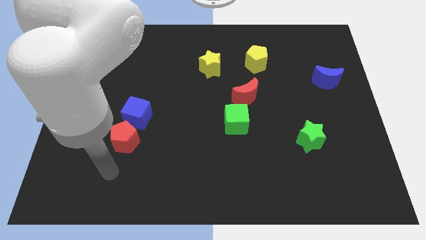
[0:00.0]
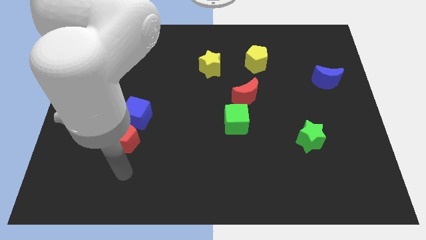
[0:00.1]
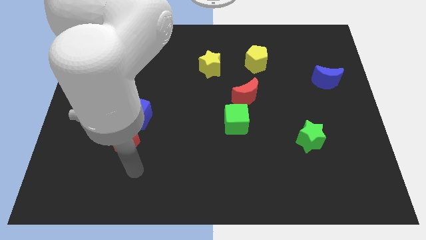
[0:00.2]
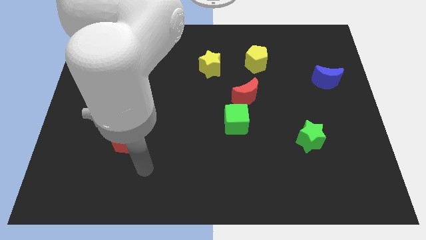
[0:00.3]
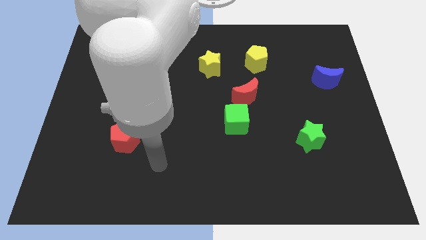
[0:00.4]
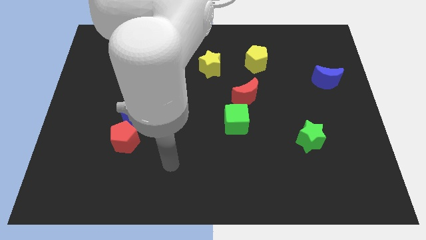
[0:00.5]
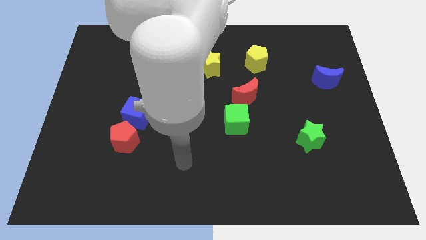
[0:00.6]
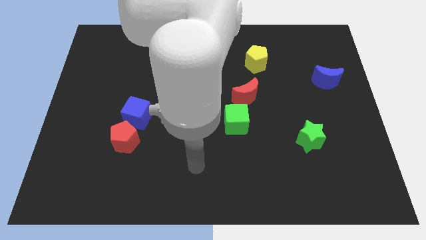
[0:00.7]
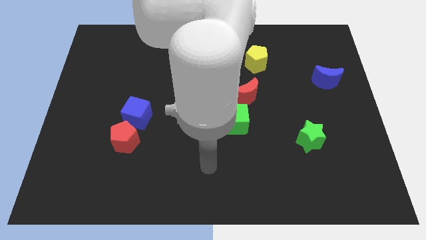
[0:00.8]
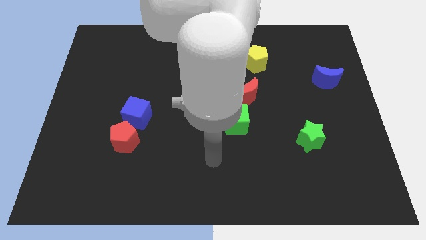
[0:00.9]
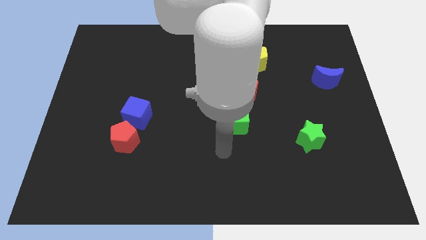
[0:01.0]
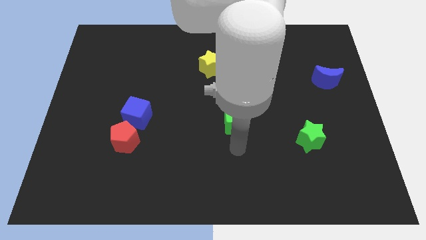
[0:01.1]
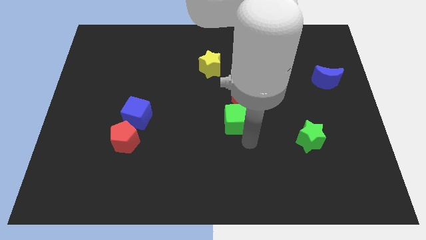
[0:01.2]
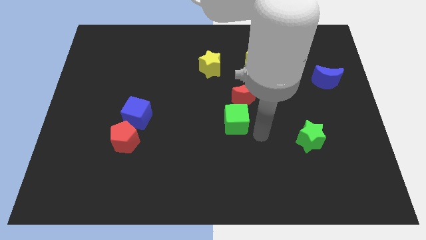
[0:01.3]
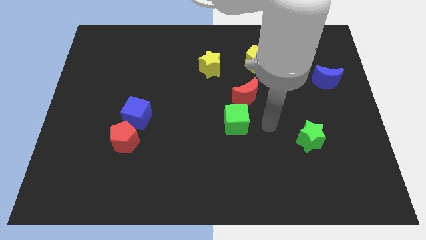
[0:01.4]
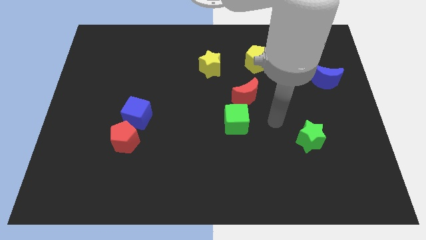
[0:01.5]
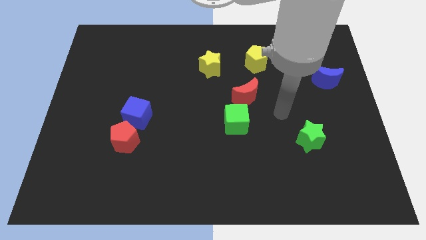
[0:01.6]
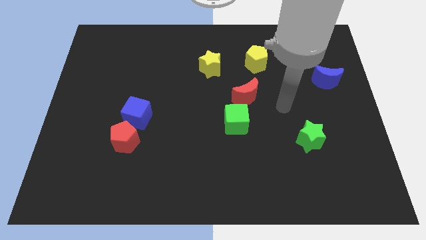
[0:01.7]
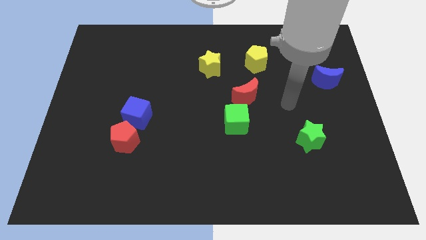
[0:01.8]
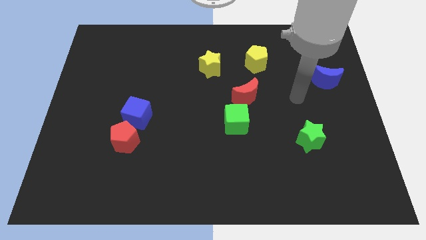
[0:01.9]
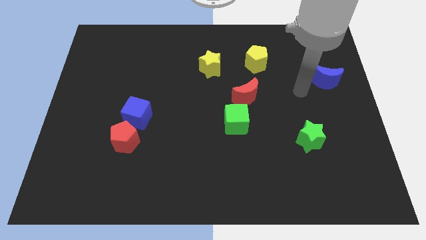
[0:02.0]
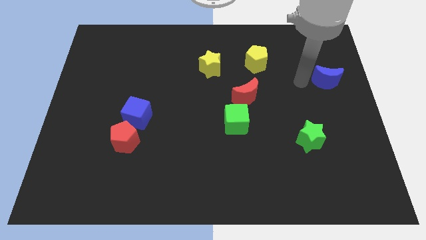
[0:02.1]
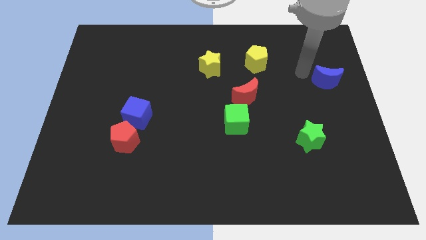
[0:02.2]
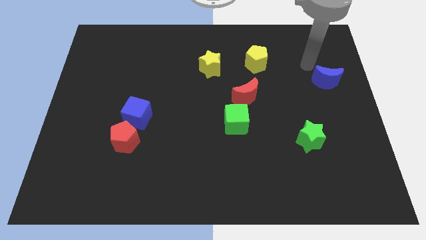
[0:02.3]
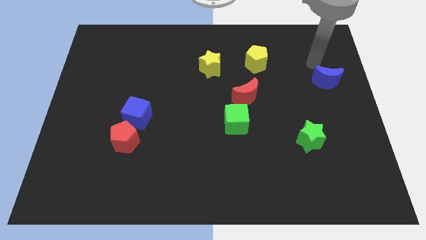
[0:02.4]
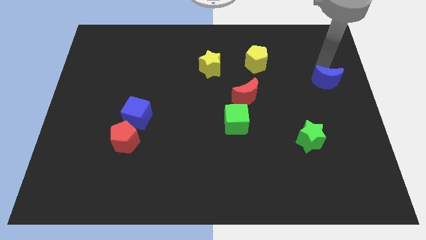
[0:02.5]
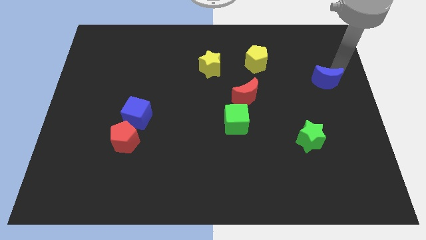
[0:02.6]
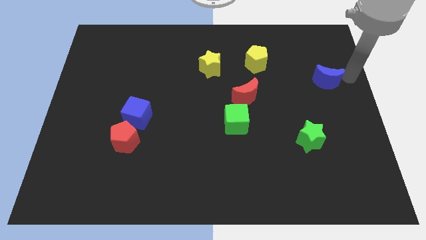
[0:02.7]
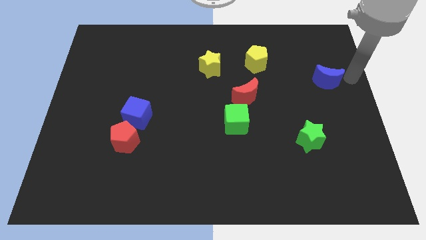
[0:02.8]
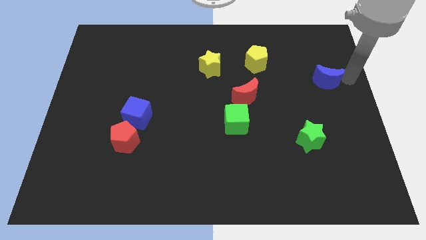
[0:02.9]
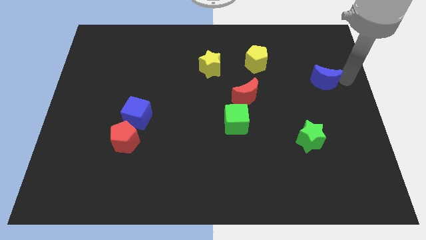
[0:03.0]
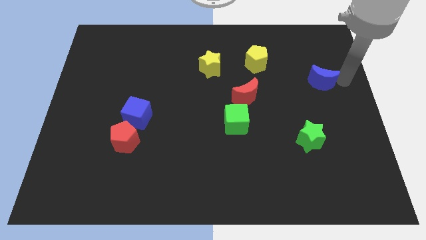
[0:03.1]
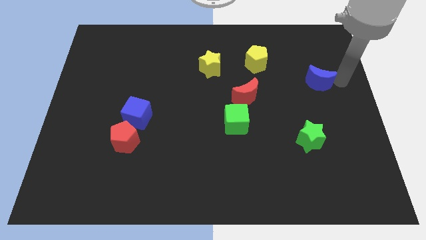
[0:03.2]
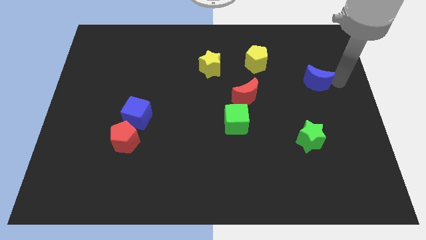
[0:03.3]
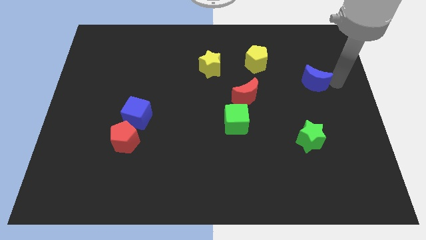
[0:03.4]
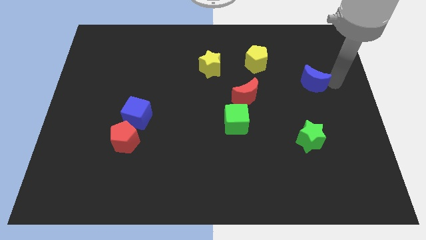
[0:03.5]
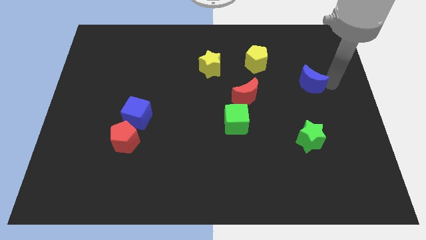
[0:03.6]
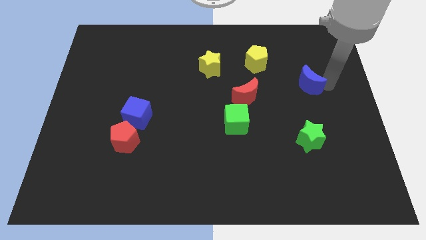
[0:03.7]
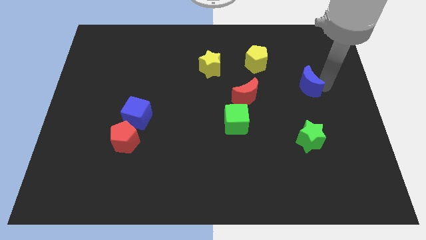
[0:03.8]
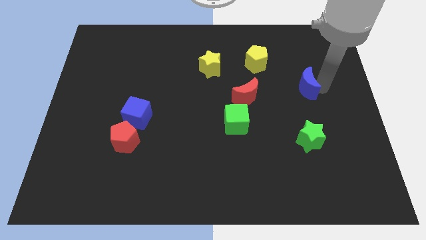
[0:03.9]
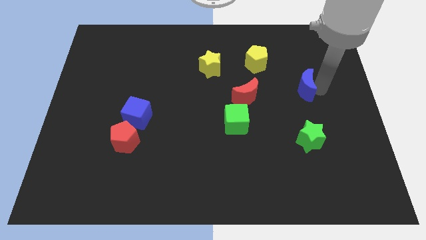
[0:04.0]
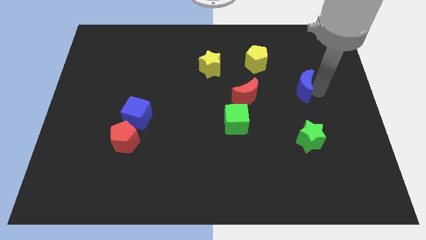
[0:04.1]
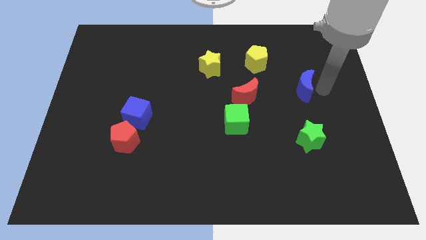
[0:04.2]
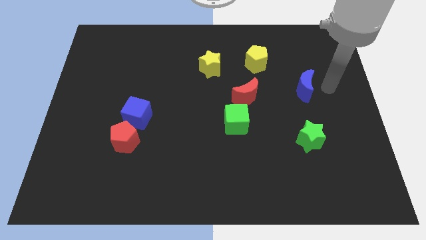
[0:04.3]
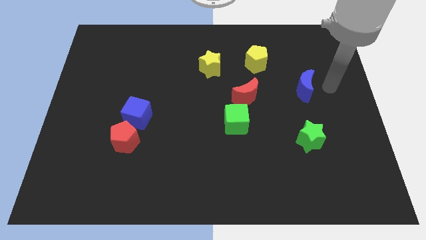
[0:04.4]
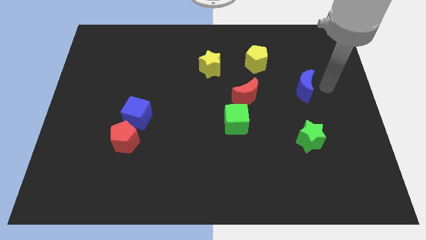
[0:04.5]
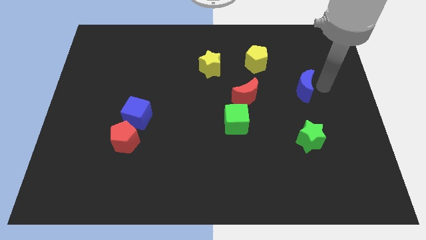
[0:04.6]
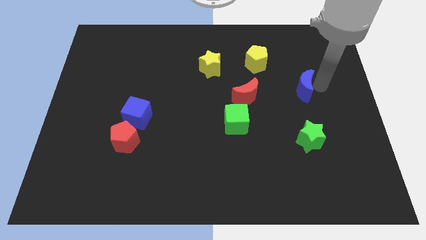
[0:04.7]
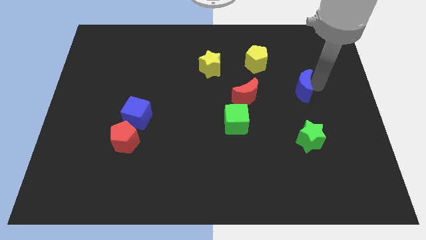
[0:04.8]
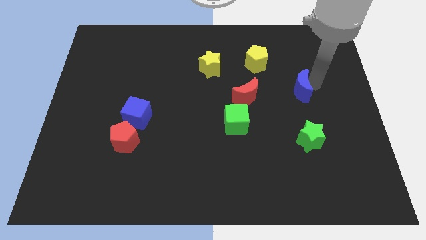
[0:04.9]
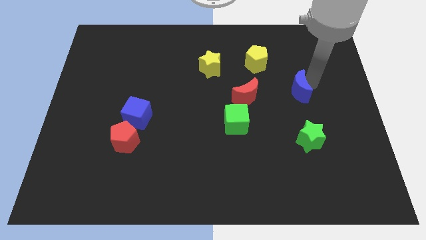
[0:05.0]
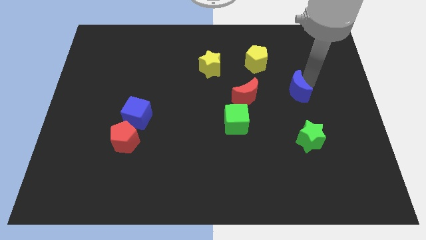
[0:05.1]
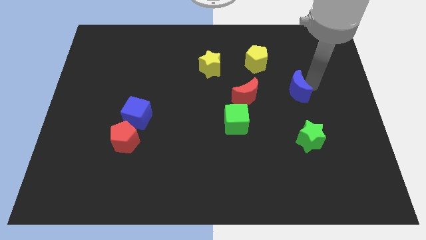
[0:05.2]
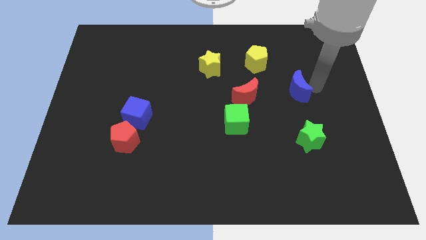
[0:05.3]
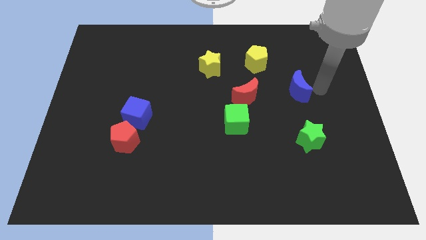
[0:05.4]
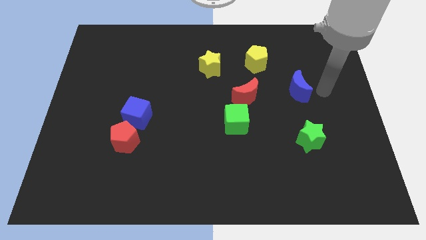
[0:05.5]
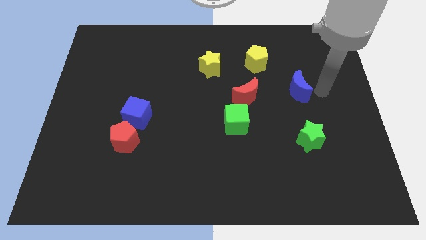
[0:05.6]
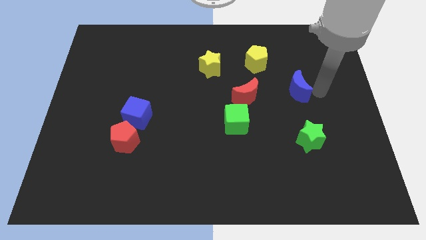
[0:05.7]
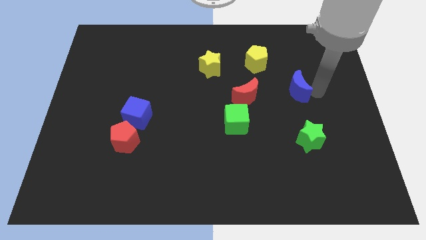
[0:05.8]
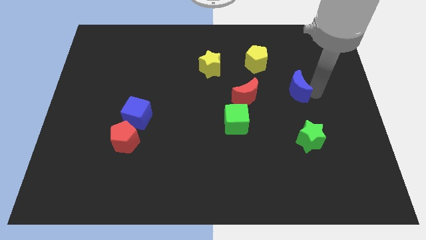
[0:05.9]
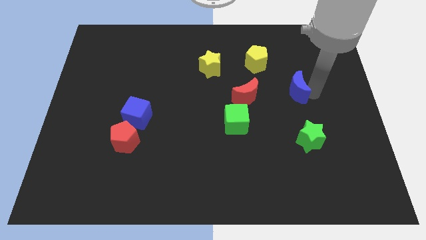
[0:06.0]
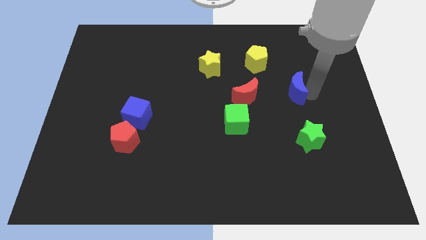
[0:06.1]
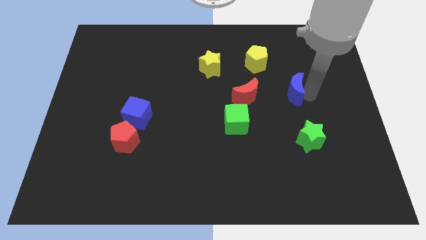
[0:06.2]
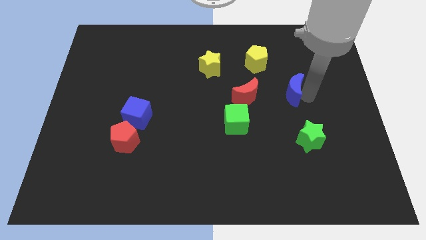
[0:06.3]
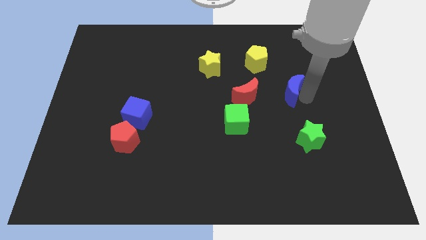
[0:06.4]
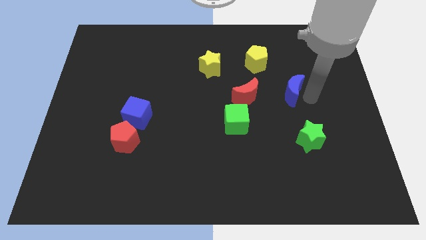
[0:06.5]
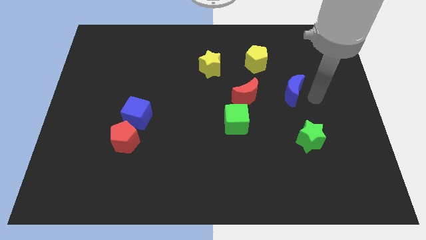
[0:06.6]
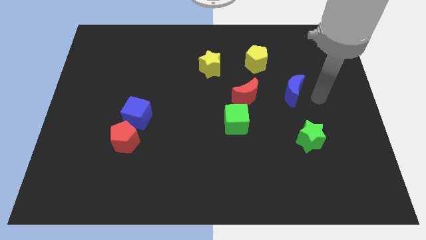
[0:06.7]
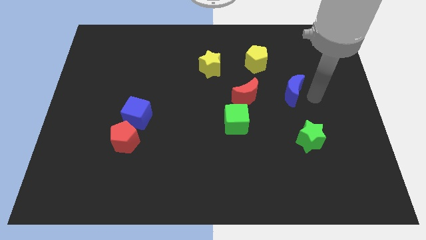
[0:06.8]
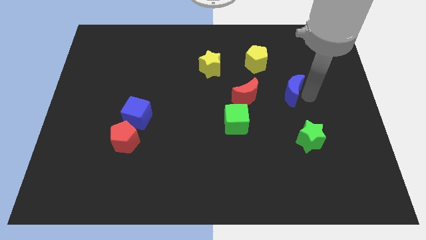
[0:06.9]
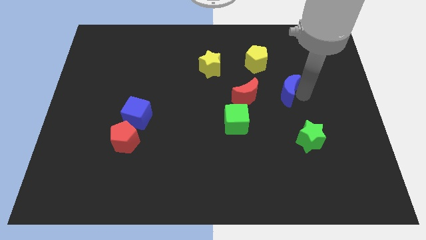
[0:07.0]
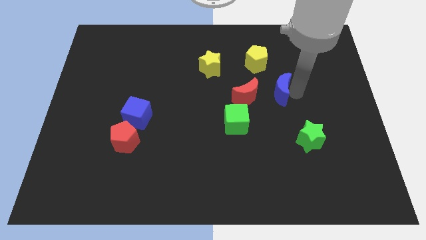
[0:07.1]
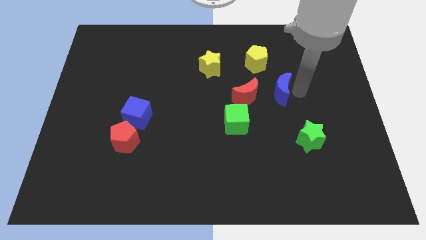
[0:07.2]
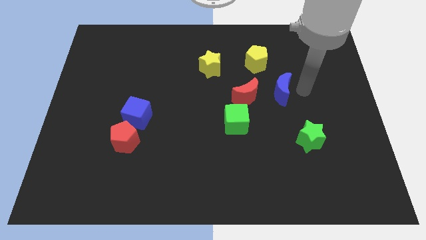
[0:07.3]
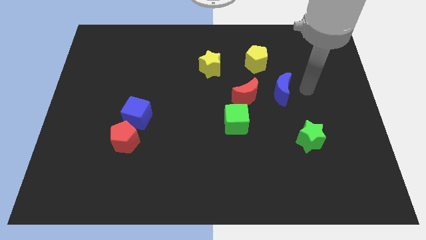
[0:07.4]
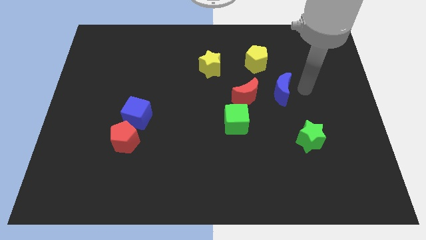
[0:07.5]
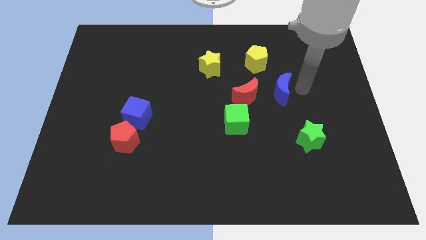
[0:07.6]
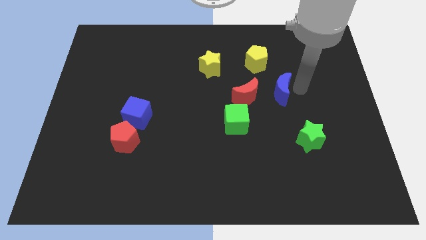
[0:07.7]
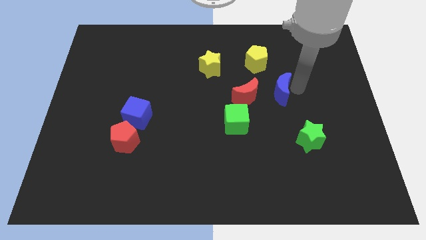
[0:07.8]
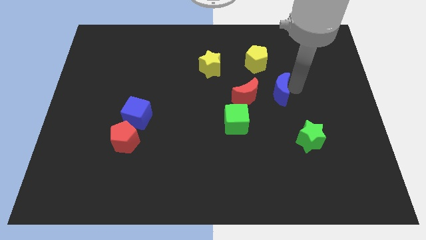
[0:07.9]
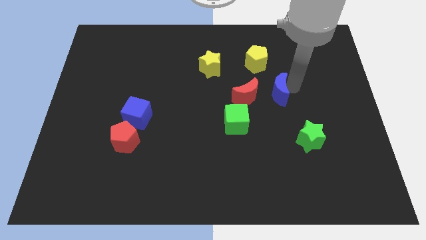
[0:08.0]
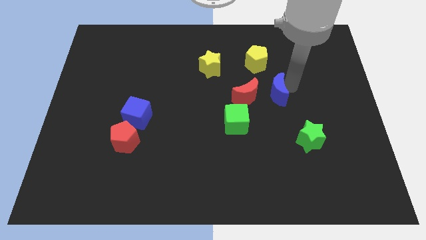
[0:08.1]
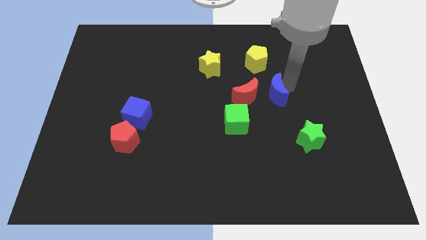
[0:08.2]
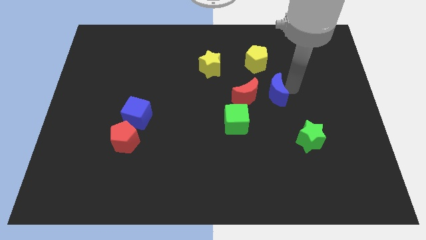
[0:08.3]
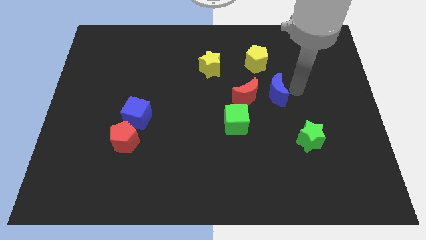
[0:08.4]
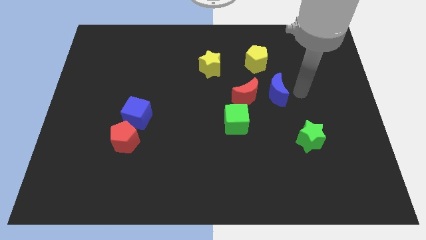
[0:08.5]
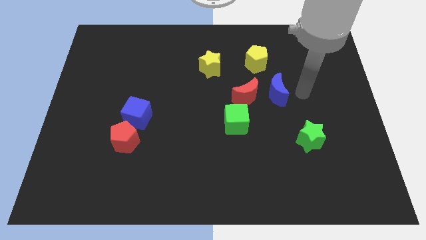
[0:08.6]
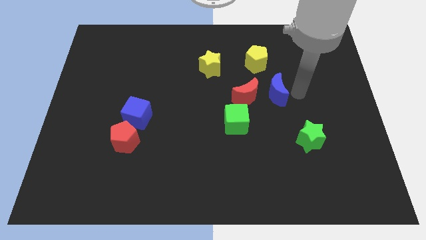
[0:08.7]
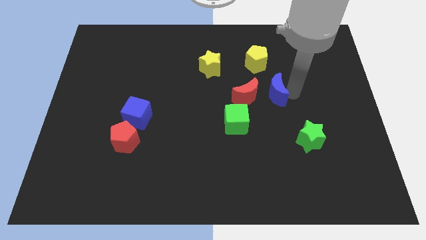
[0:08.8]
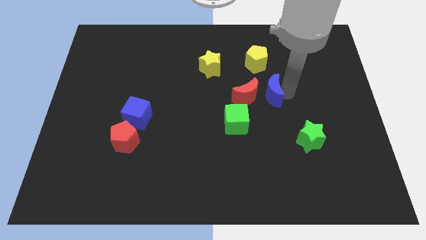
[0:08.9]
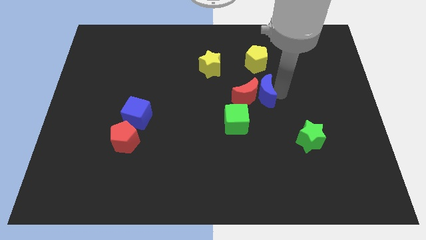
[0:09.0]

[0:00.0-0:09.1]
move the blue moon close to the red moon
